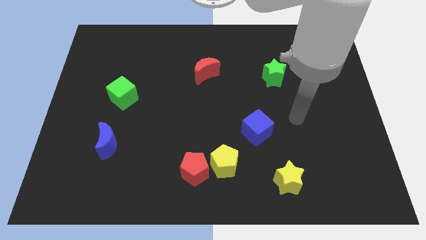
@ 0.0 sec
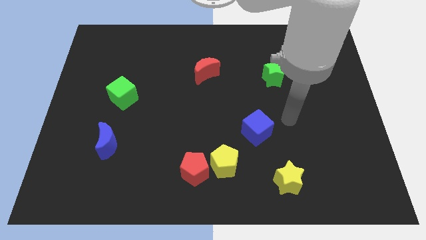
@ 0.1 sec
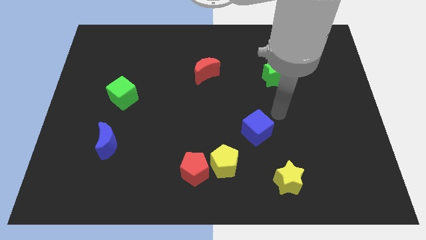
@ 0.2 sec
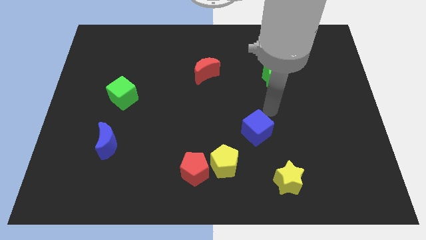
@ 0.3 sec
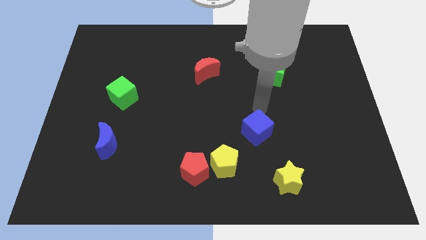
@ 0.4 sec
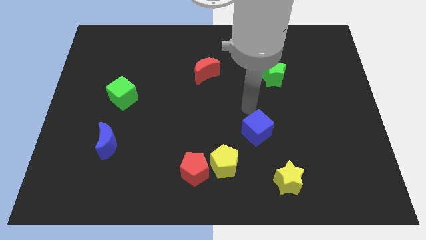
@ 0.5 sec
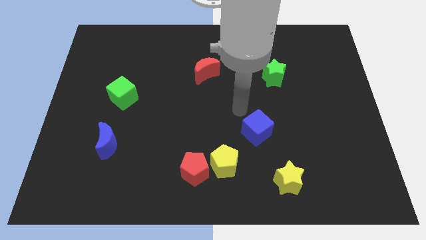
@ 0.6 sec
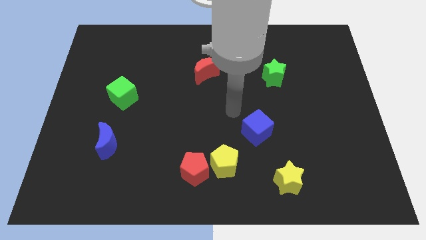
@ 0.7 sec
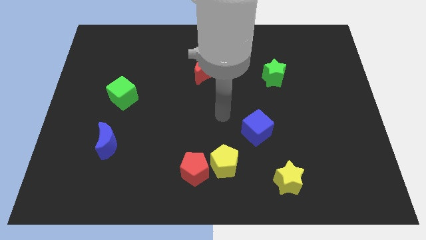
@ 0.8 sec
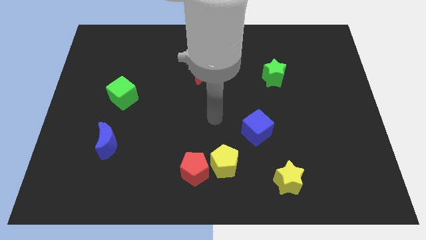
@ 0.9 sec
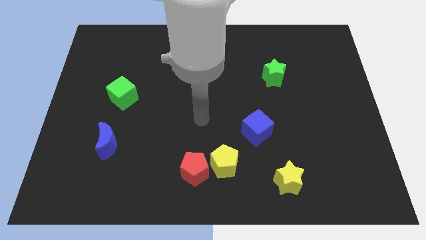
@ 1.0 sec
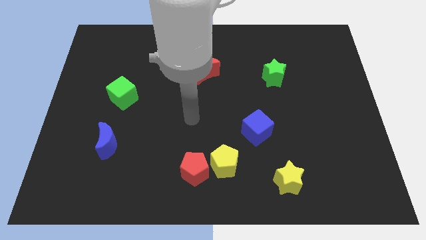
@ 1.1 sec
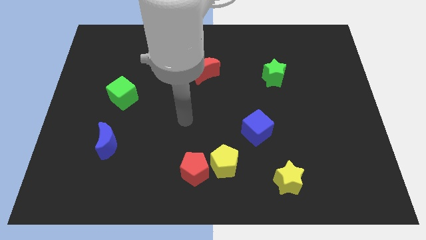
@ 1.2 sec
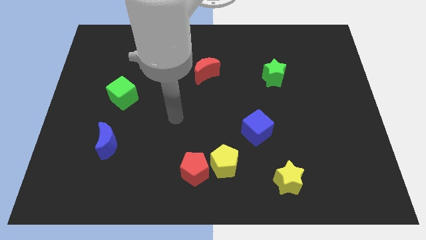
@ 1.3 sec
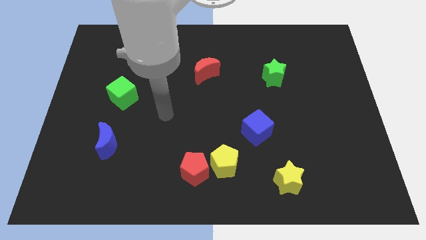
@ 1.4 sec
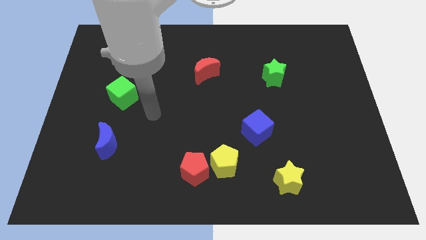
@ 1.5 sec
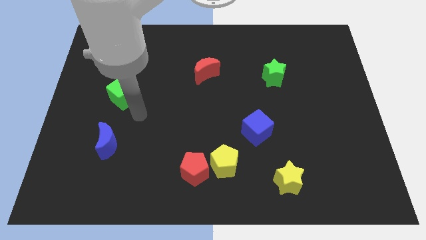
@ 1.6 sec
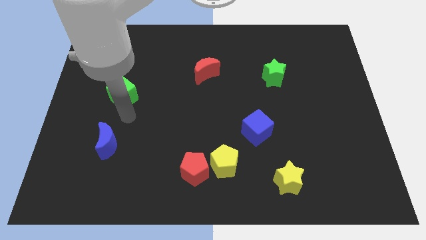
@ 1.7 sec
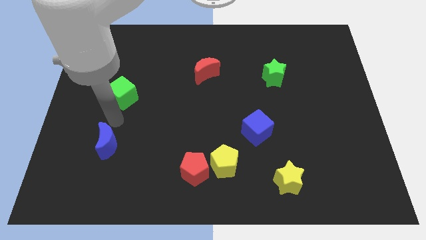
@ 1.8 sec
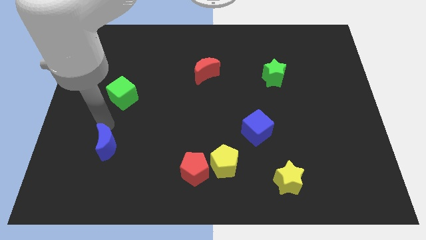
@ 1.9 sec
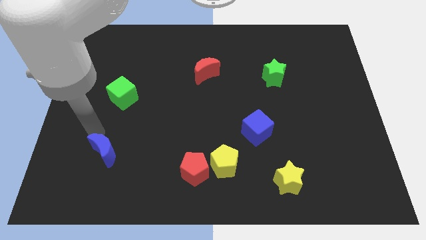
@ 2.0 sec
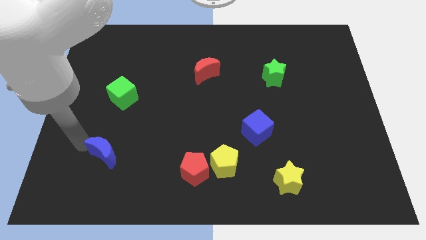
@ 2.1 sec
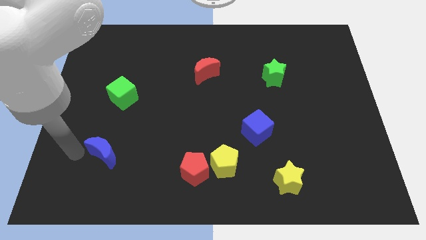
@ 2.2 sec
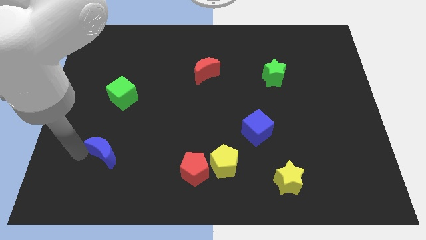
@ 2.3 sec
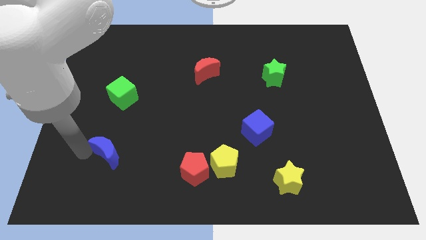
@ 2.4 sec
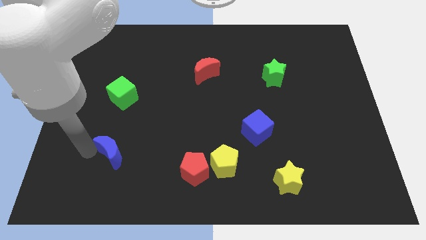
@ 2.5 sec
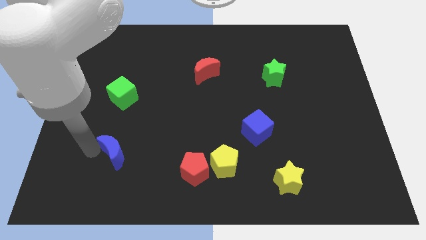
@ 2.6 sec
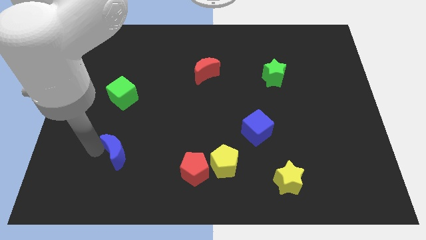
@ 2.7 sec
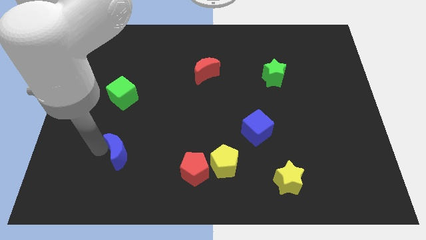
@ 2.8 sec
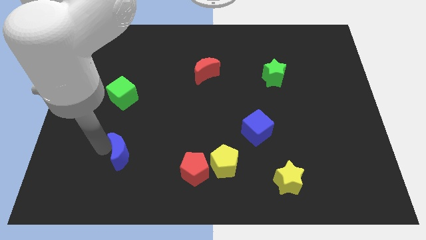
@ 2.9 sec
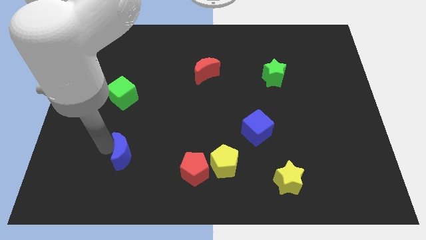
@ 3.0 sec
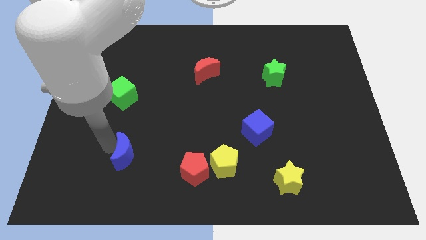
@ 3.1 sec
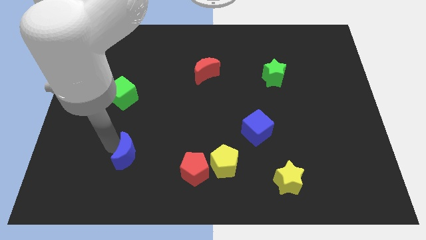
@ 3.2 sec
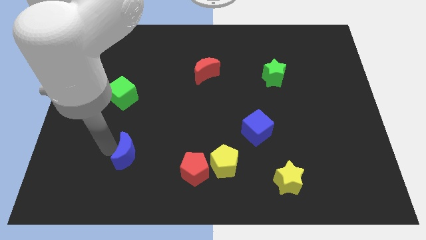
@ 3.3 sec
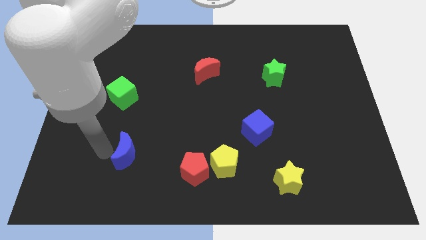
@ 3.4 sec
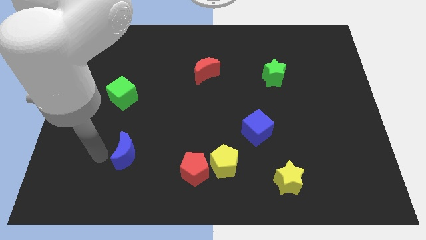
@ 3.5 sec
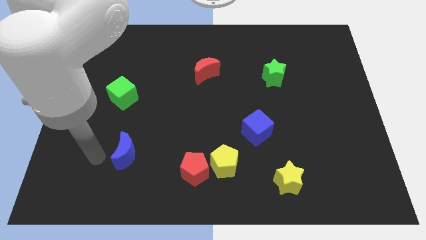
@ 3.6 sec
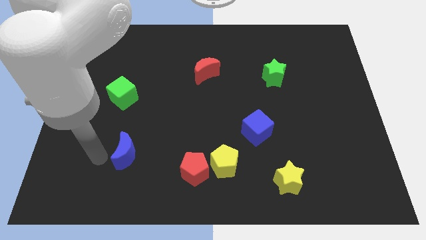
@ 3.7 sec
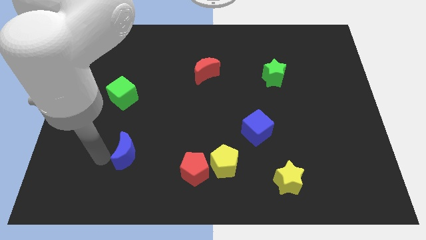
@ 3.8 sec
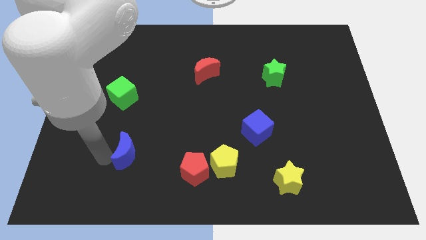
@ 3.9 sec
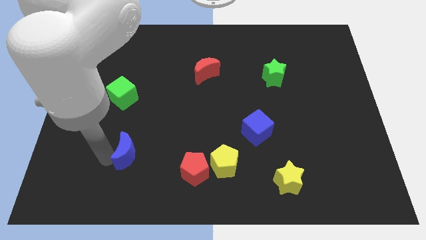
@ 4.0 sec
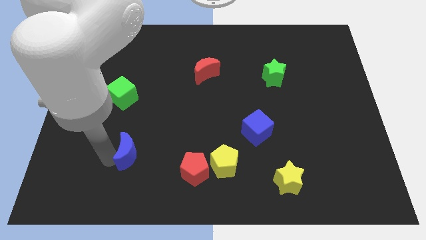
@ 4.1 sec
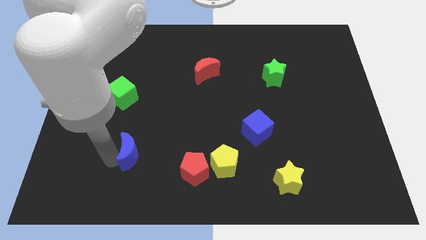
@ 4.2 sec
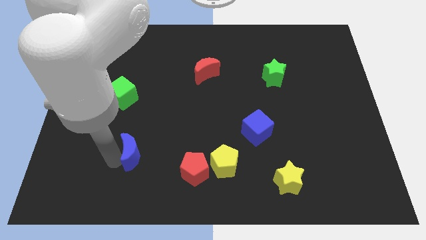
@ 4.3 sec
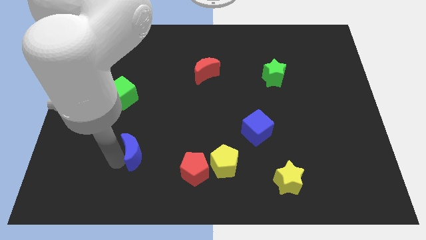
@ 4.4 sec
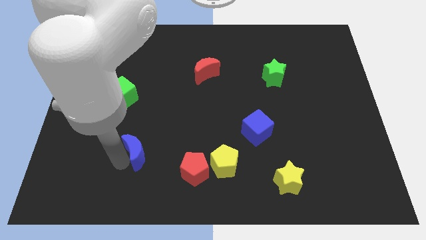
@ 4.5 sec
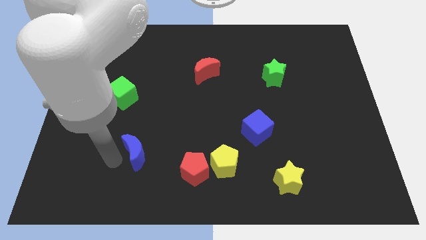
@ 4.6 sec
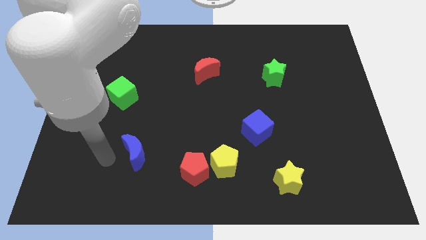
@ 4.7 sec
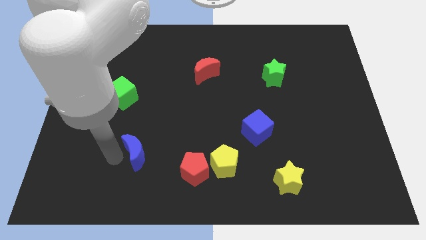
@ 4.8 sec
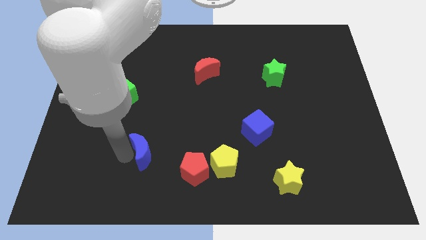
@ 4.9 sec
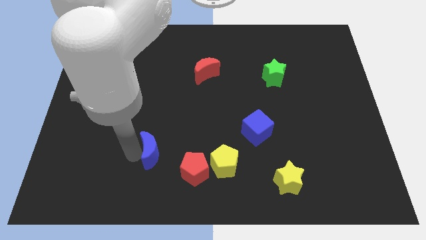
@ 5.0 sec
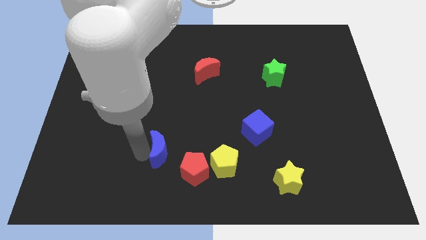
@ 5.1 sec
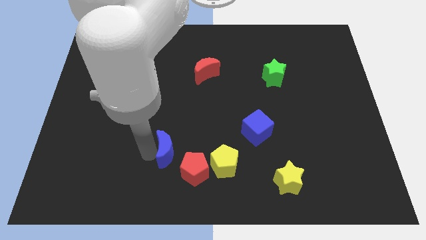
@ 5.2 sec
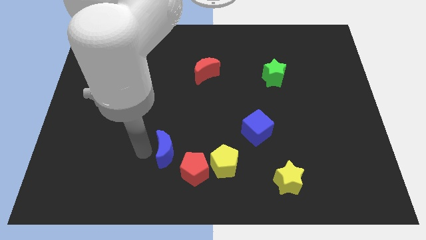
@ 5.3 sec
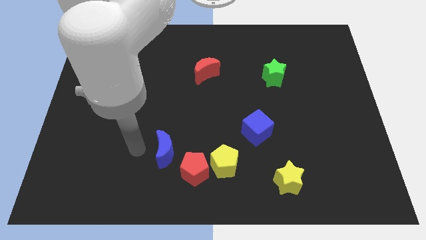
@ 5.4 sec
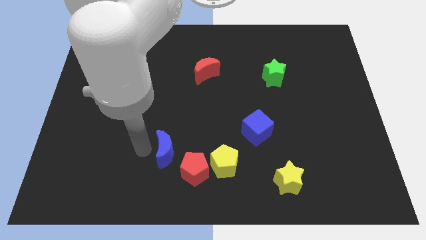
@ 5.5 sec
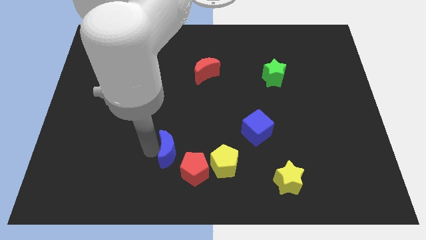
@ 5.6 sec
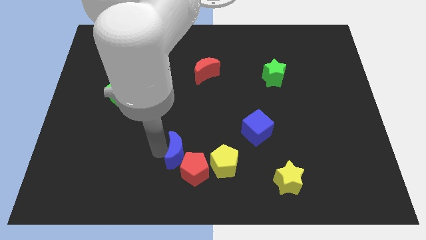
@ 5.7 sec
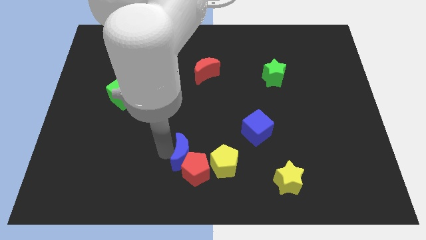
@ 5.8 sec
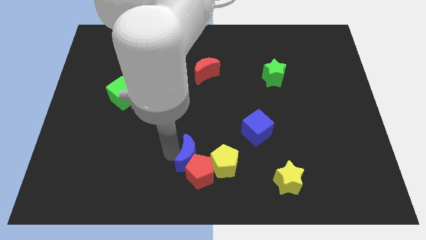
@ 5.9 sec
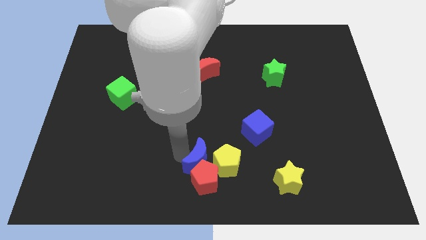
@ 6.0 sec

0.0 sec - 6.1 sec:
put the blue moon towards the yellow pentagon

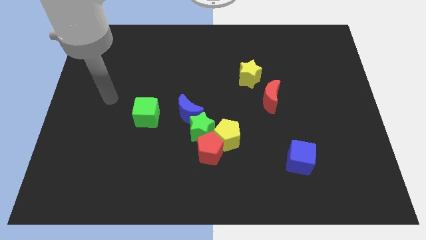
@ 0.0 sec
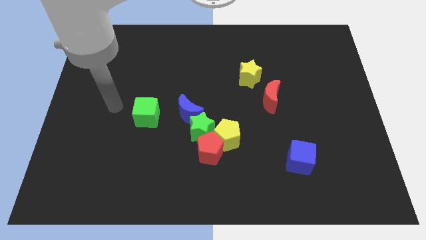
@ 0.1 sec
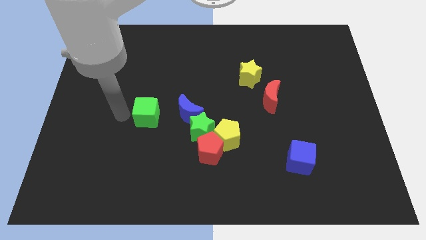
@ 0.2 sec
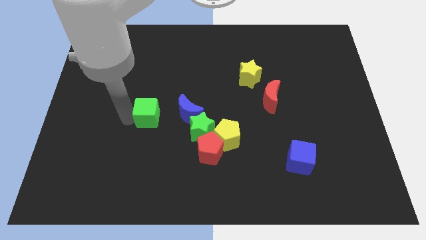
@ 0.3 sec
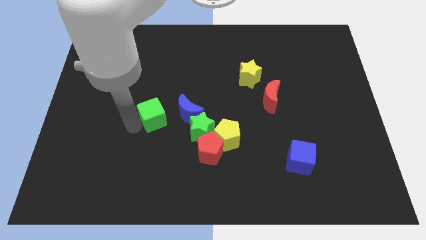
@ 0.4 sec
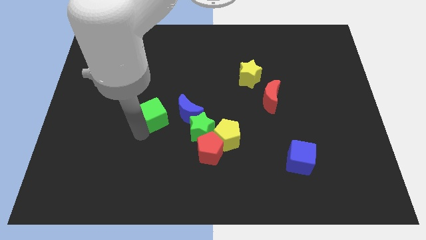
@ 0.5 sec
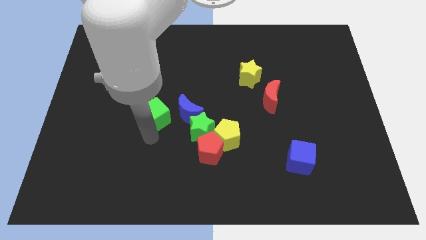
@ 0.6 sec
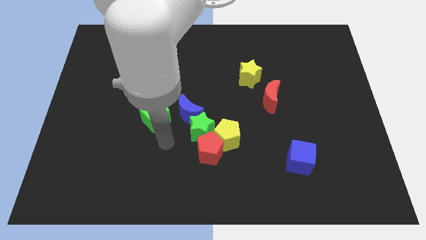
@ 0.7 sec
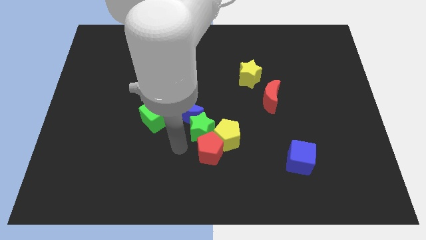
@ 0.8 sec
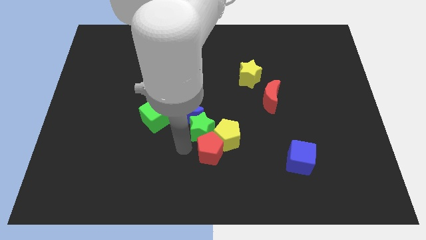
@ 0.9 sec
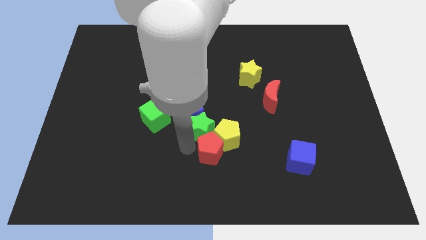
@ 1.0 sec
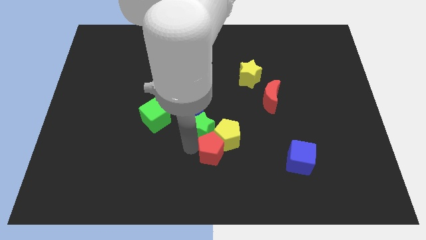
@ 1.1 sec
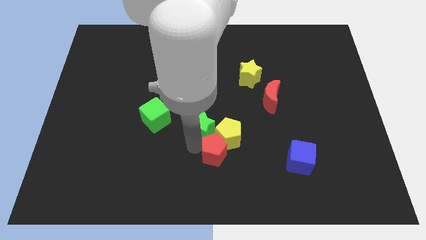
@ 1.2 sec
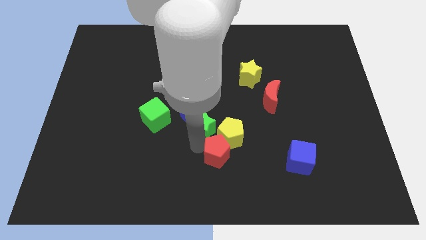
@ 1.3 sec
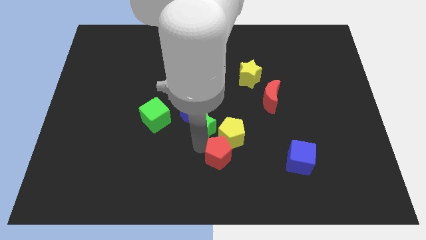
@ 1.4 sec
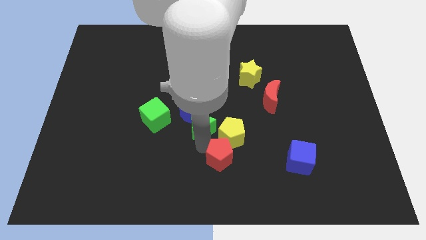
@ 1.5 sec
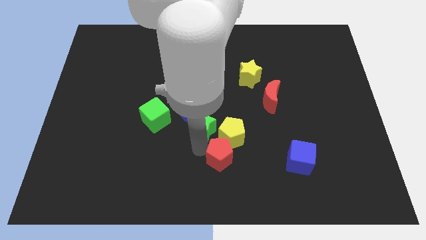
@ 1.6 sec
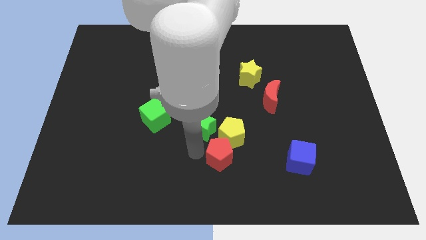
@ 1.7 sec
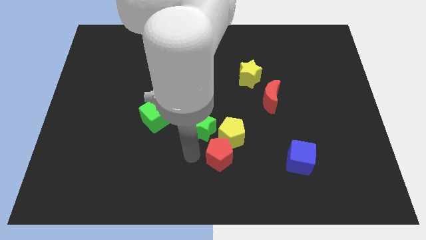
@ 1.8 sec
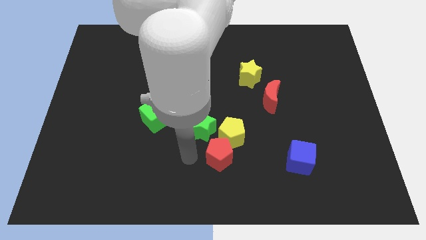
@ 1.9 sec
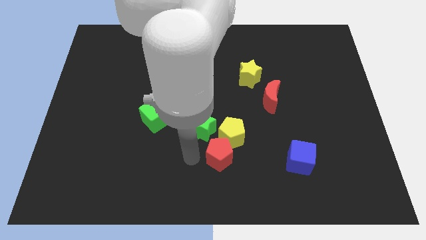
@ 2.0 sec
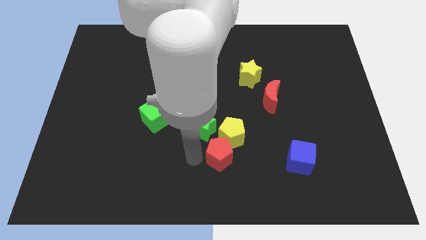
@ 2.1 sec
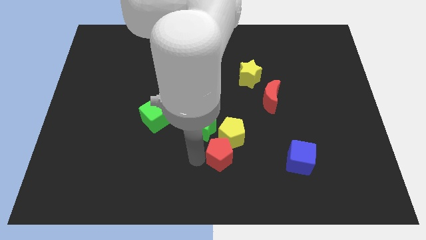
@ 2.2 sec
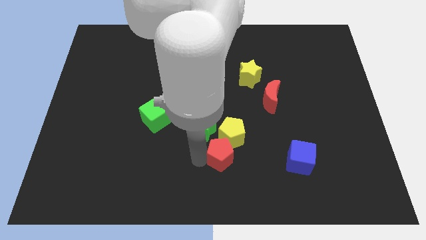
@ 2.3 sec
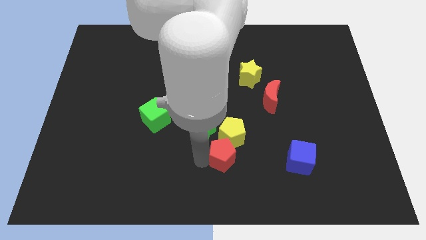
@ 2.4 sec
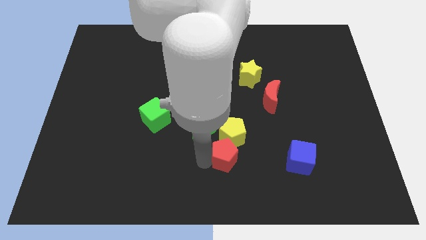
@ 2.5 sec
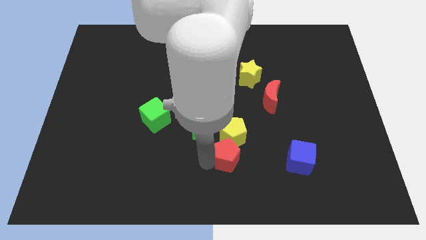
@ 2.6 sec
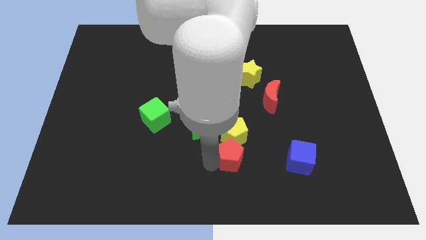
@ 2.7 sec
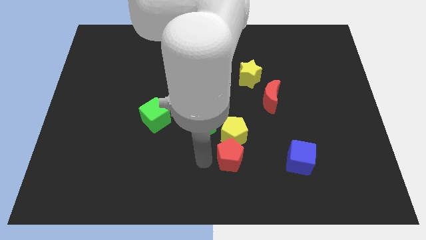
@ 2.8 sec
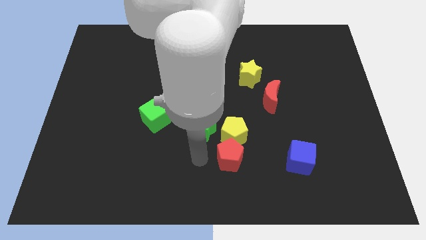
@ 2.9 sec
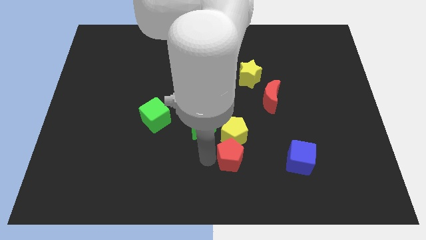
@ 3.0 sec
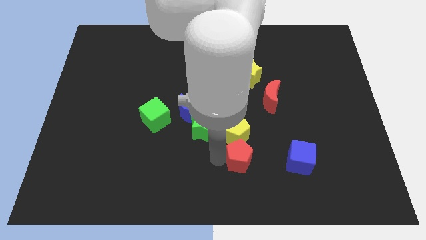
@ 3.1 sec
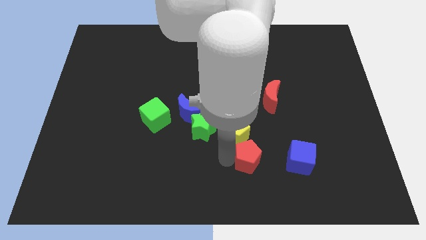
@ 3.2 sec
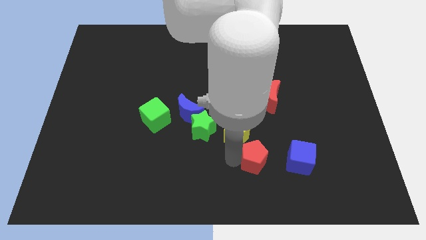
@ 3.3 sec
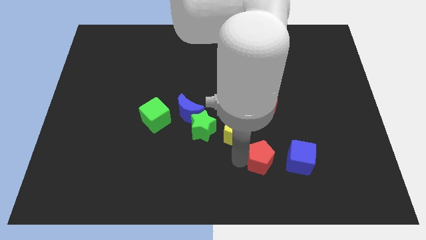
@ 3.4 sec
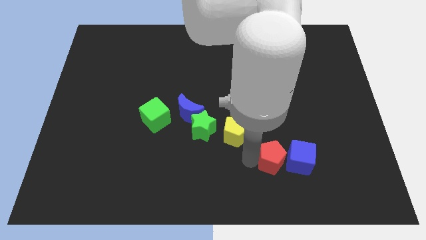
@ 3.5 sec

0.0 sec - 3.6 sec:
push the red pentagon next to the blue cube
